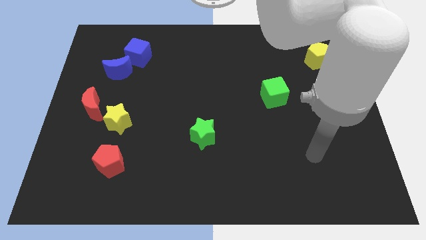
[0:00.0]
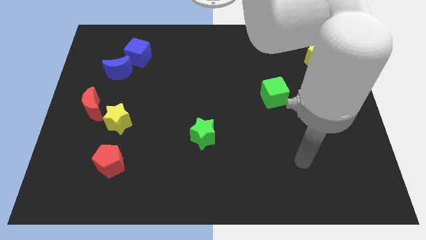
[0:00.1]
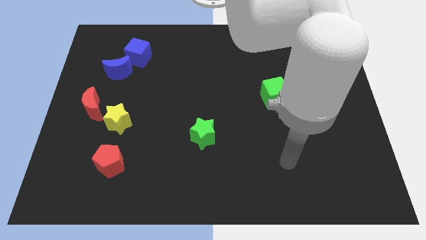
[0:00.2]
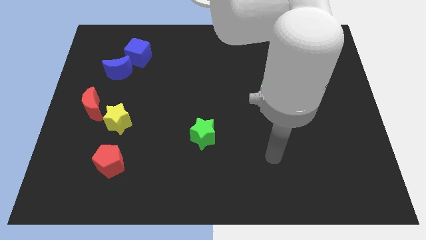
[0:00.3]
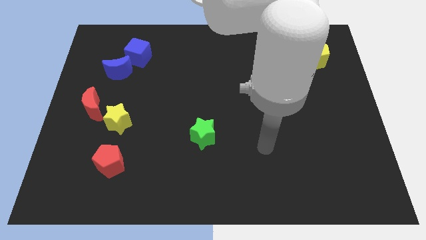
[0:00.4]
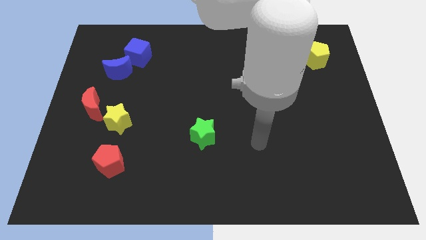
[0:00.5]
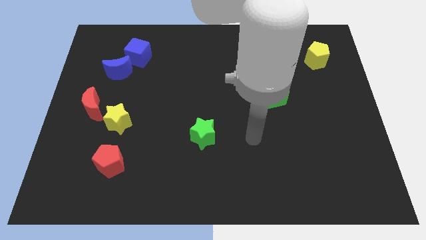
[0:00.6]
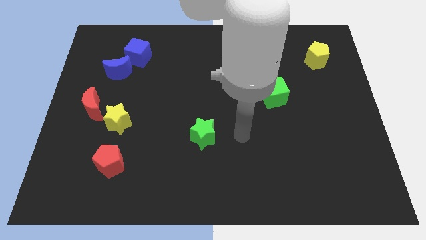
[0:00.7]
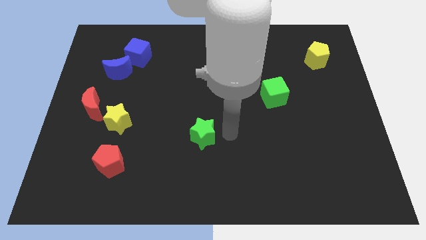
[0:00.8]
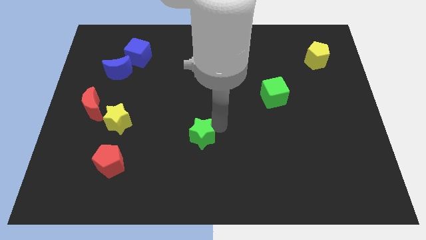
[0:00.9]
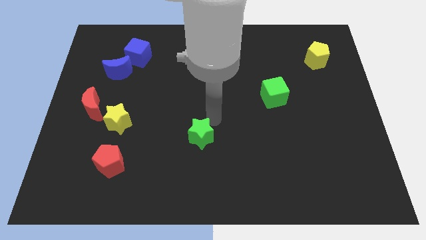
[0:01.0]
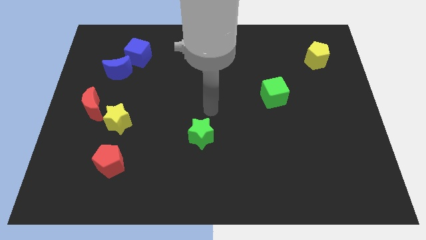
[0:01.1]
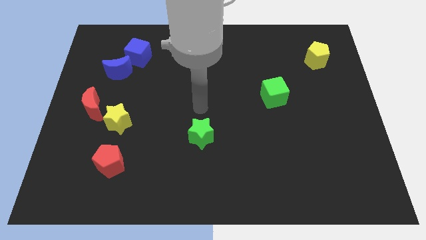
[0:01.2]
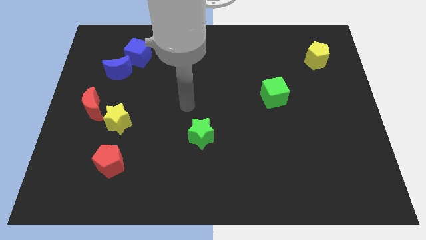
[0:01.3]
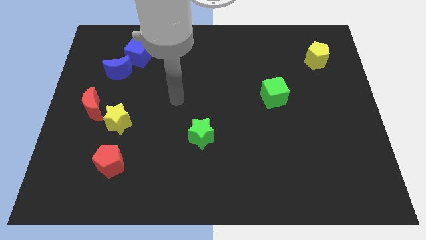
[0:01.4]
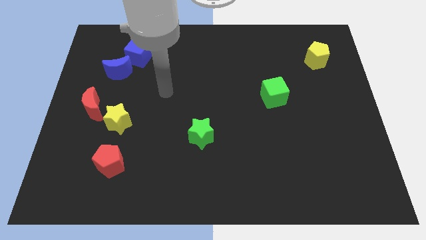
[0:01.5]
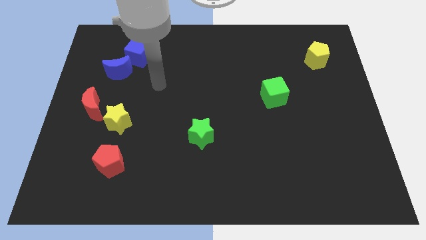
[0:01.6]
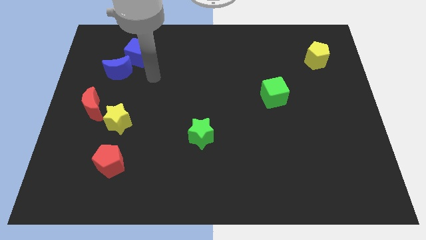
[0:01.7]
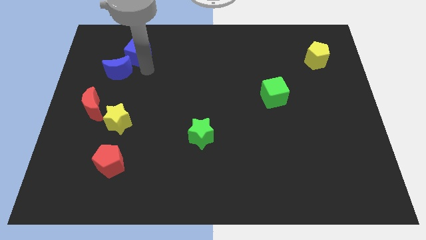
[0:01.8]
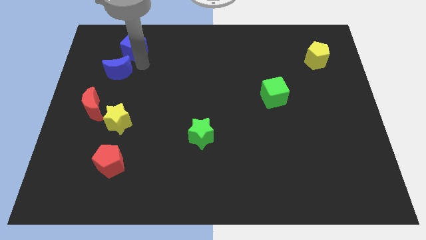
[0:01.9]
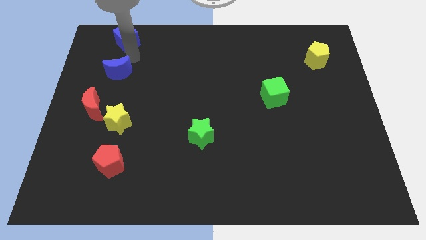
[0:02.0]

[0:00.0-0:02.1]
move the blue moon away from the blue cube

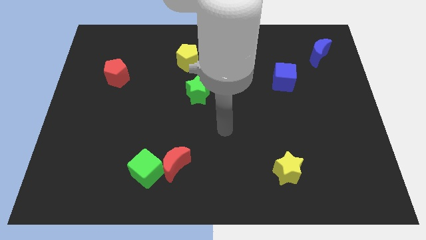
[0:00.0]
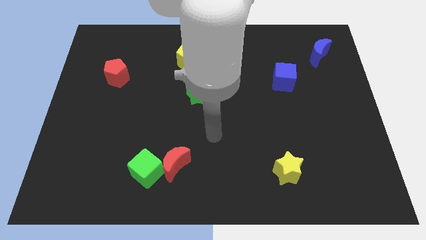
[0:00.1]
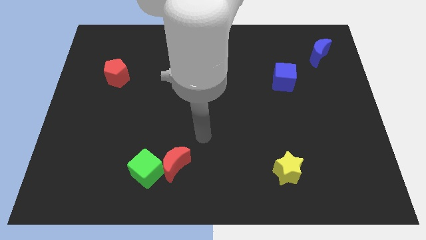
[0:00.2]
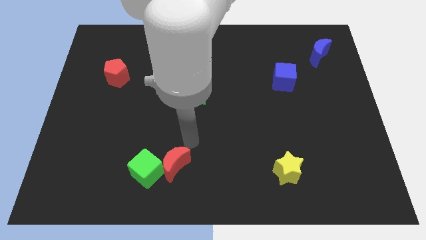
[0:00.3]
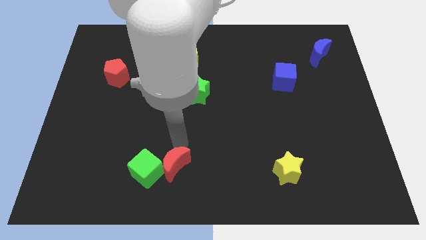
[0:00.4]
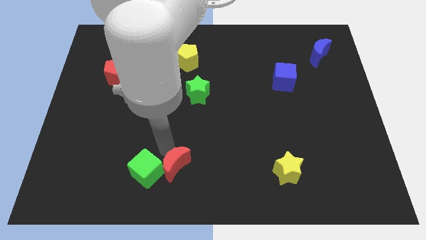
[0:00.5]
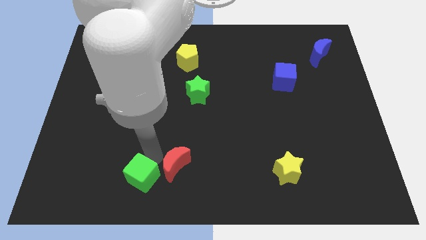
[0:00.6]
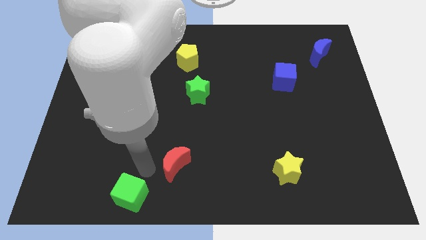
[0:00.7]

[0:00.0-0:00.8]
pull the red moon apart from the green cube

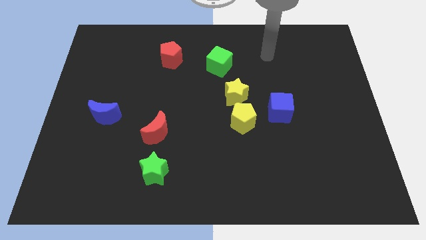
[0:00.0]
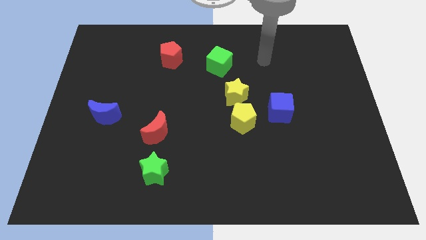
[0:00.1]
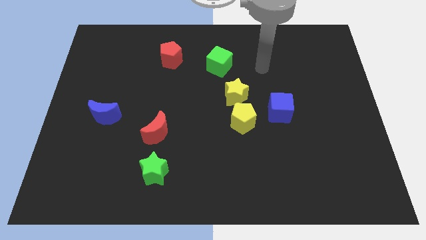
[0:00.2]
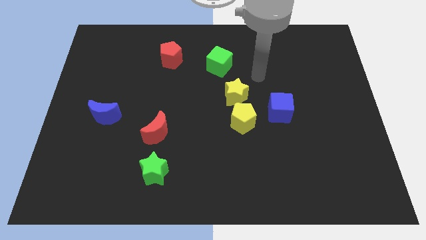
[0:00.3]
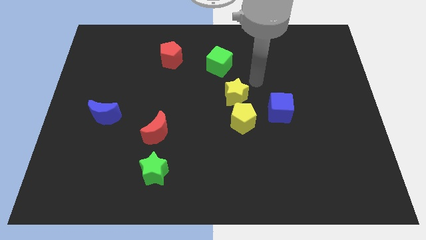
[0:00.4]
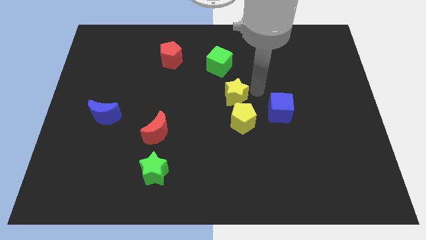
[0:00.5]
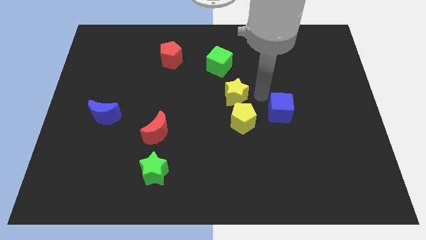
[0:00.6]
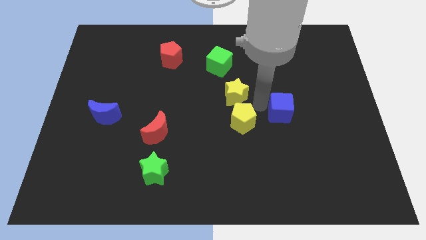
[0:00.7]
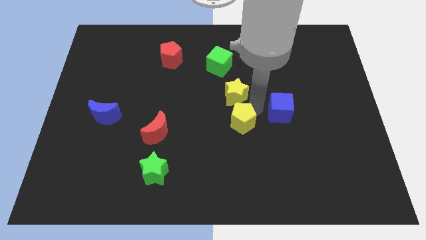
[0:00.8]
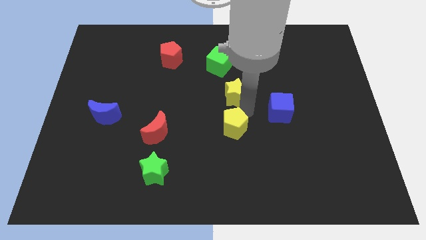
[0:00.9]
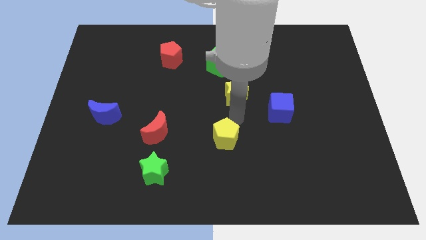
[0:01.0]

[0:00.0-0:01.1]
move the yellow star away from the yellow pentagon

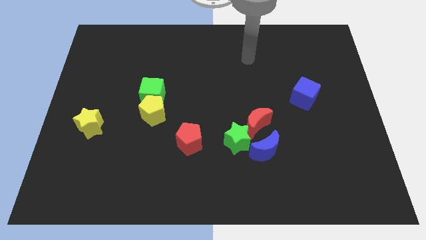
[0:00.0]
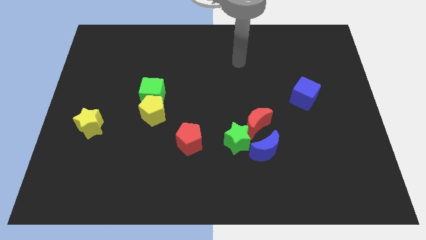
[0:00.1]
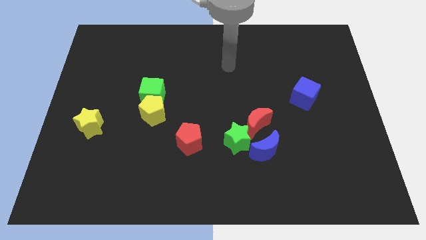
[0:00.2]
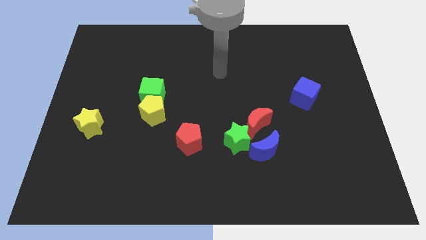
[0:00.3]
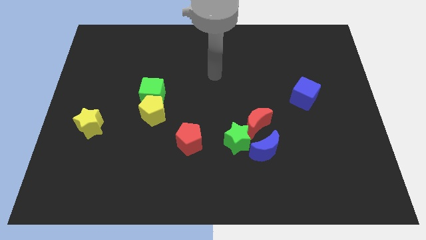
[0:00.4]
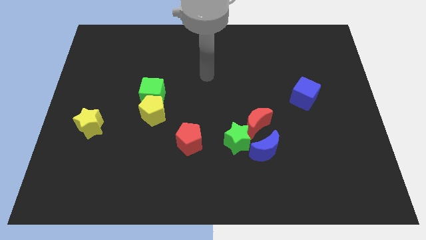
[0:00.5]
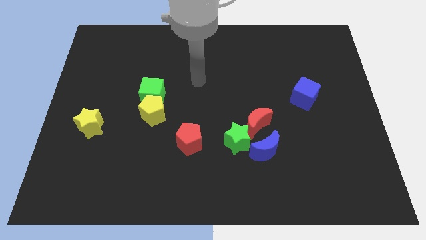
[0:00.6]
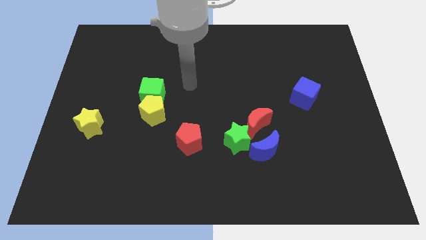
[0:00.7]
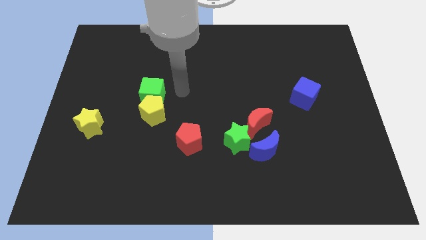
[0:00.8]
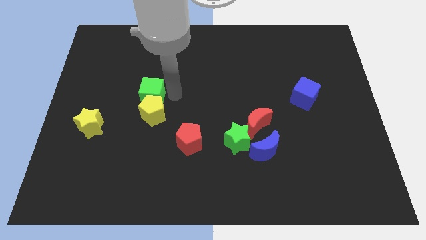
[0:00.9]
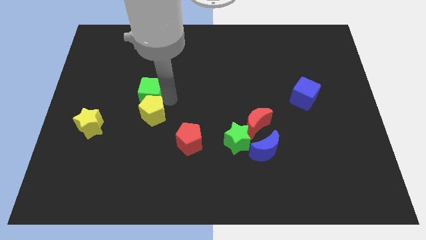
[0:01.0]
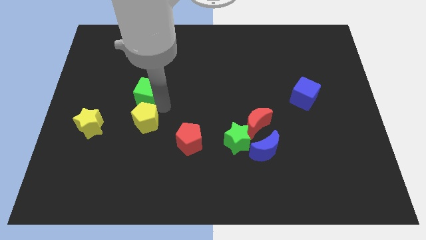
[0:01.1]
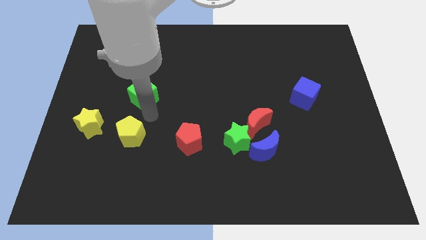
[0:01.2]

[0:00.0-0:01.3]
move the green cube away from the yellow pentagon

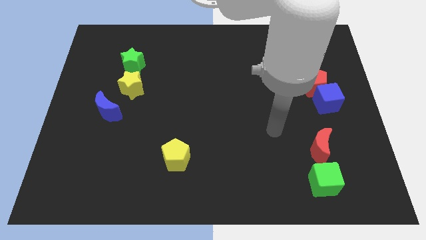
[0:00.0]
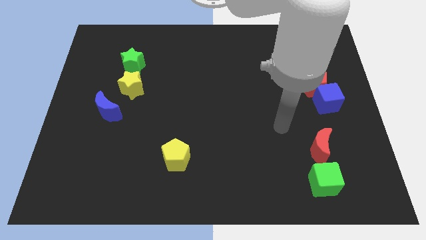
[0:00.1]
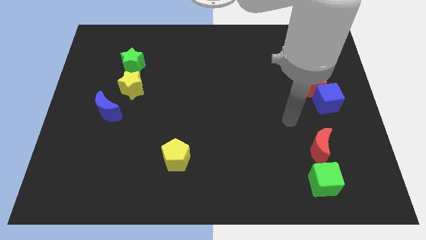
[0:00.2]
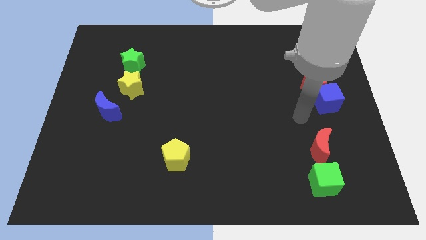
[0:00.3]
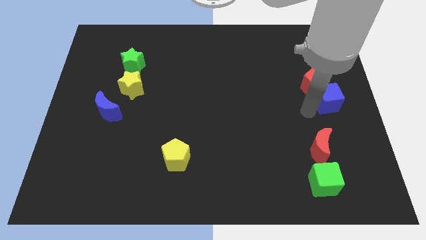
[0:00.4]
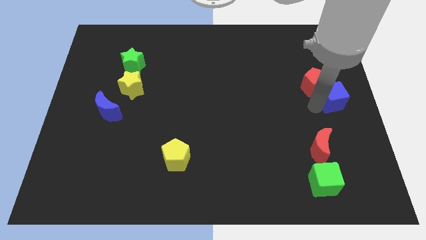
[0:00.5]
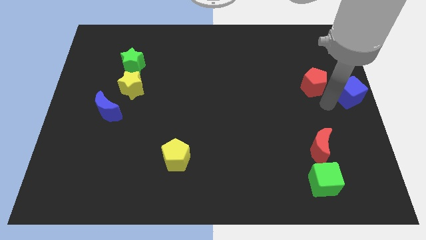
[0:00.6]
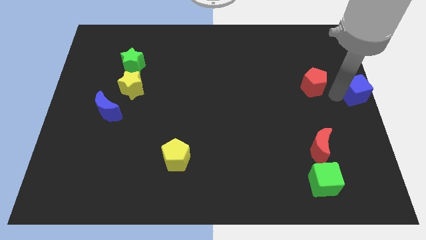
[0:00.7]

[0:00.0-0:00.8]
pull the red pentagon apart from the blue cube

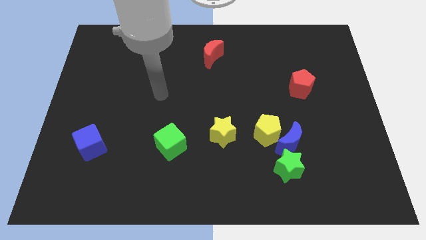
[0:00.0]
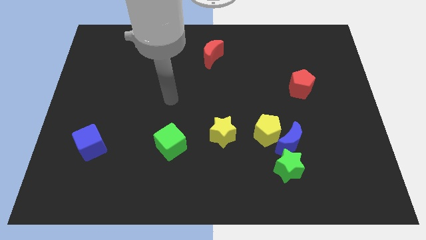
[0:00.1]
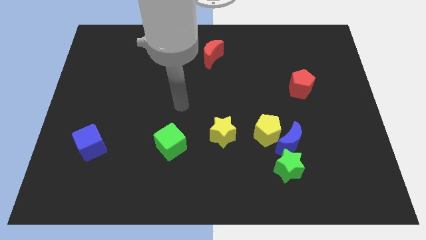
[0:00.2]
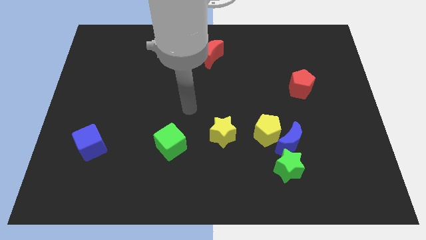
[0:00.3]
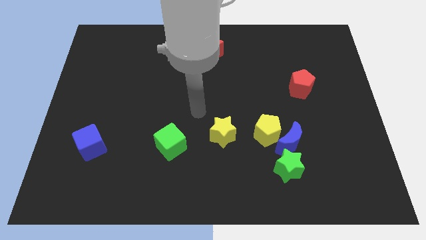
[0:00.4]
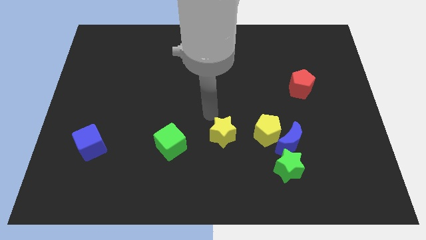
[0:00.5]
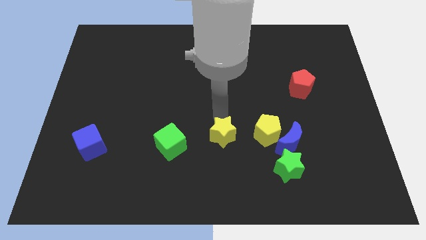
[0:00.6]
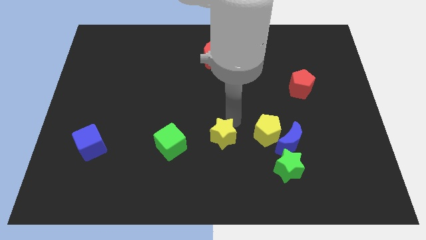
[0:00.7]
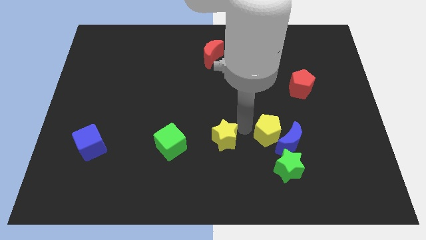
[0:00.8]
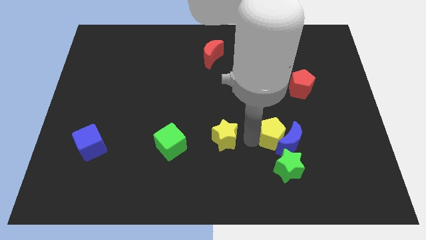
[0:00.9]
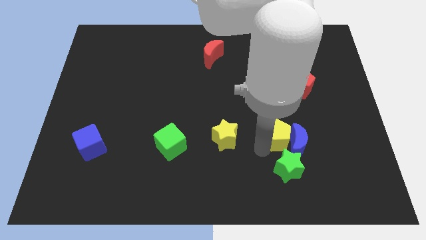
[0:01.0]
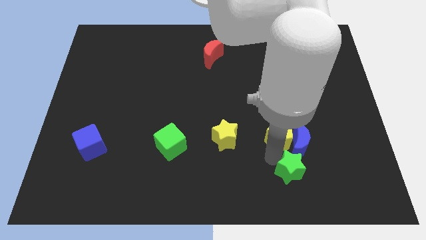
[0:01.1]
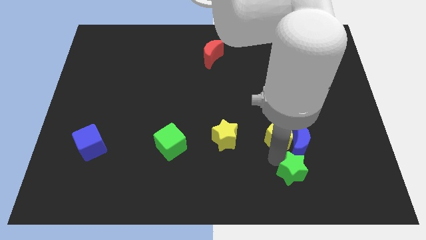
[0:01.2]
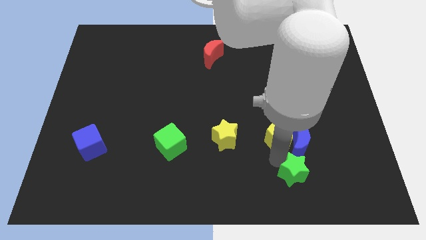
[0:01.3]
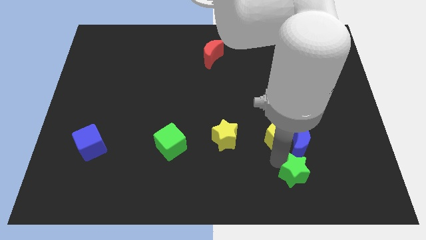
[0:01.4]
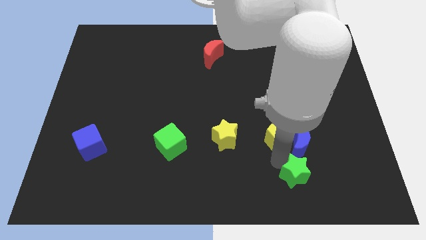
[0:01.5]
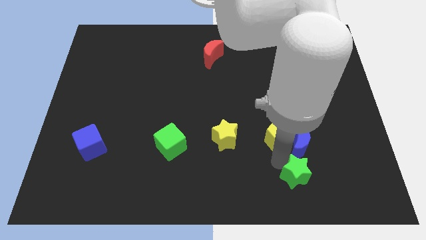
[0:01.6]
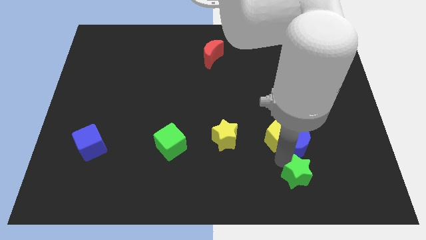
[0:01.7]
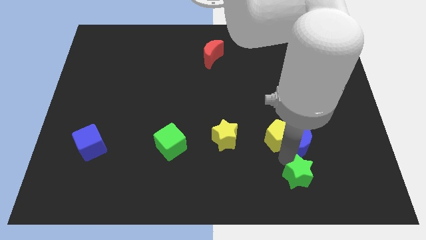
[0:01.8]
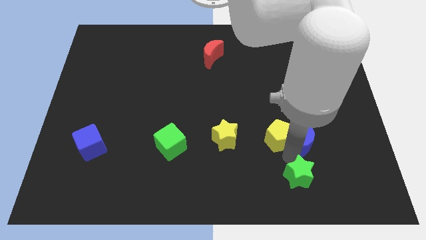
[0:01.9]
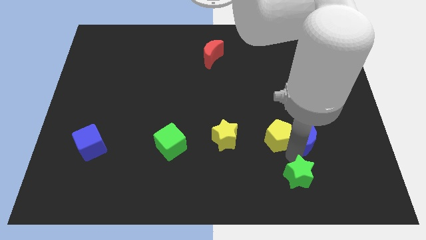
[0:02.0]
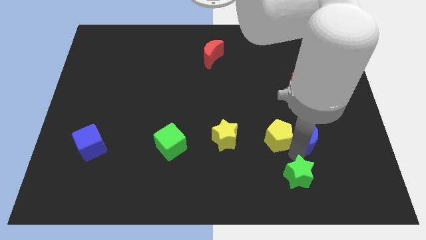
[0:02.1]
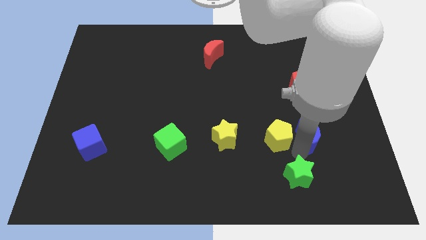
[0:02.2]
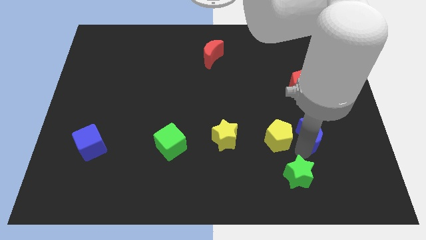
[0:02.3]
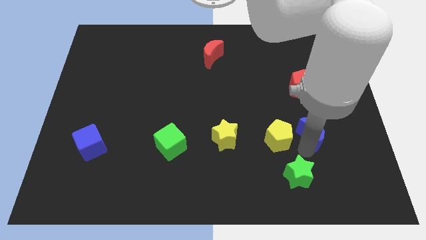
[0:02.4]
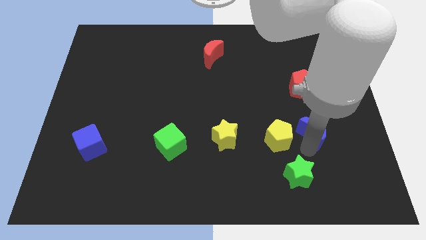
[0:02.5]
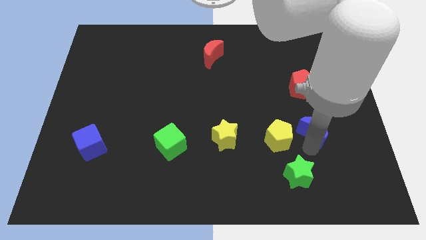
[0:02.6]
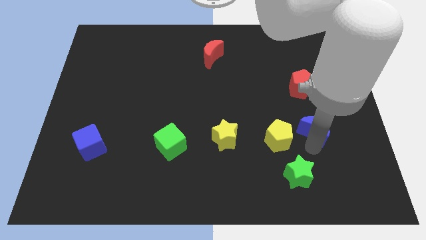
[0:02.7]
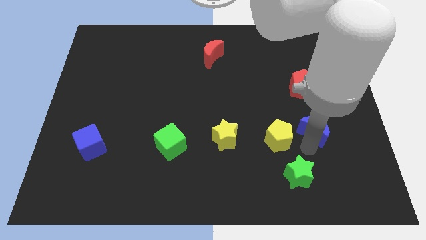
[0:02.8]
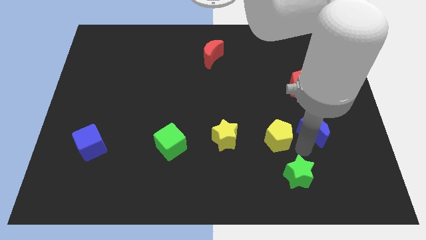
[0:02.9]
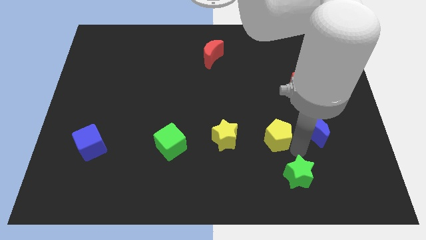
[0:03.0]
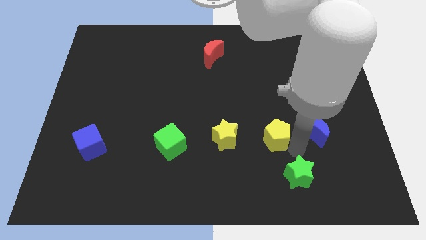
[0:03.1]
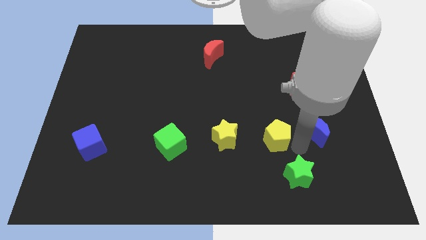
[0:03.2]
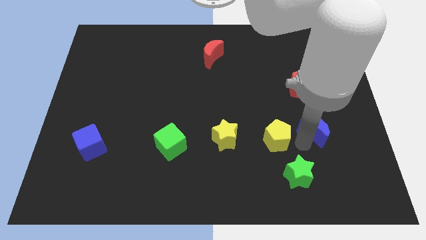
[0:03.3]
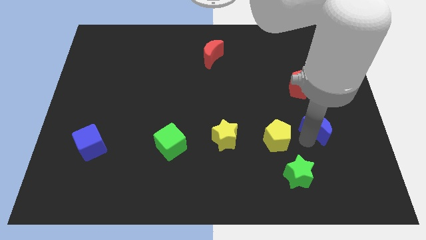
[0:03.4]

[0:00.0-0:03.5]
separate the blue moon from the yellow pentagon and green star
